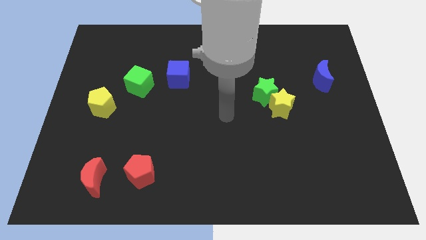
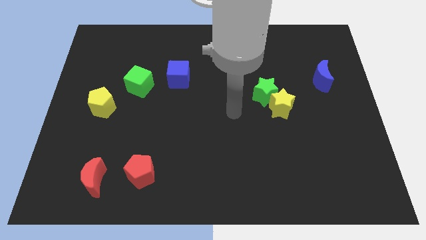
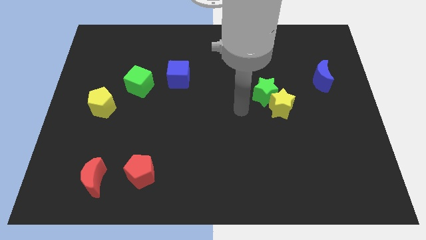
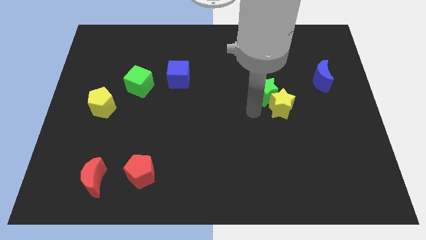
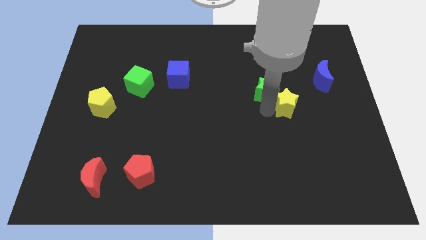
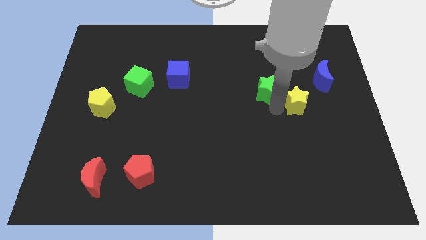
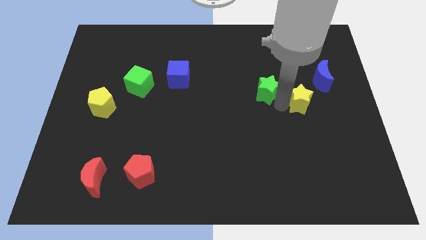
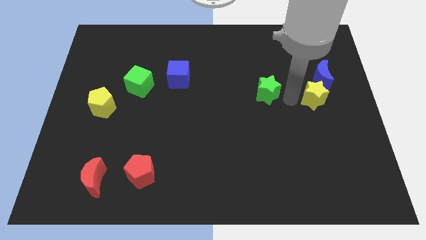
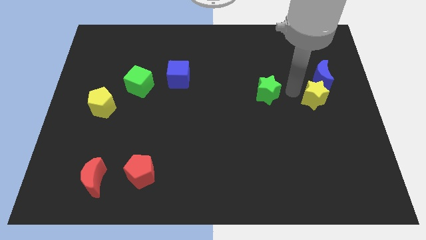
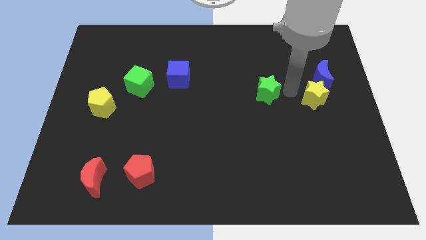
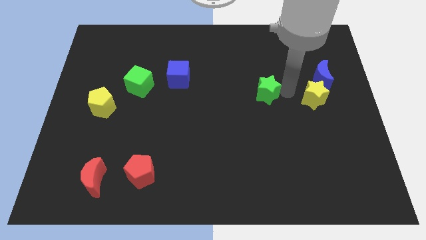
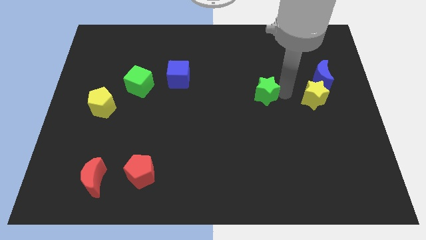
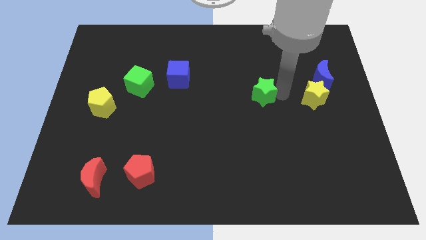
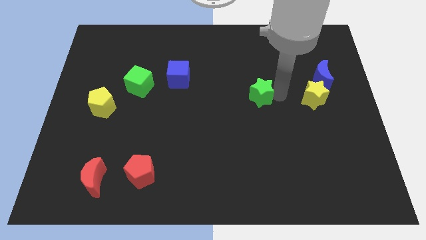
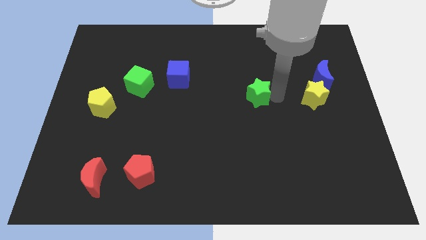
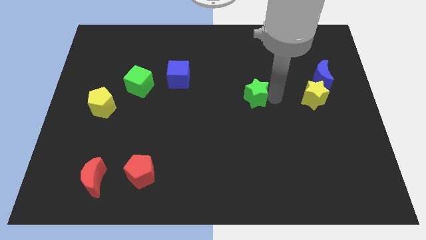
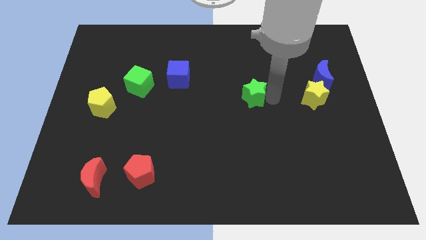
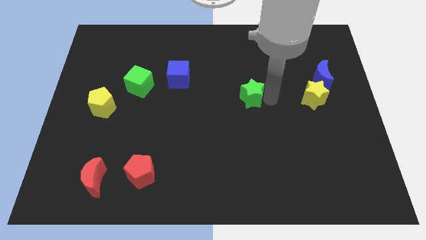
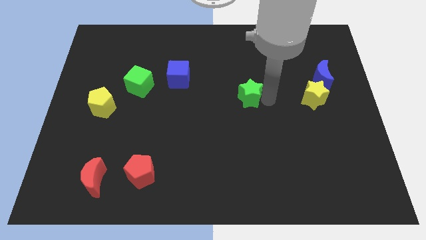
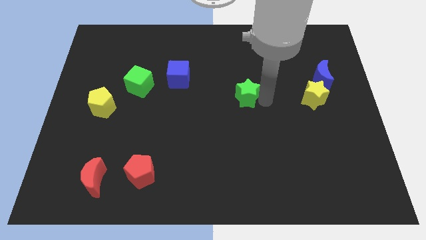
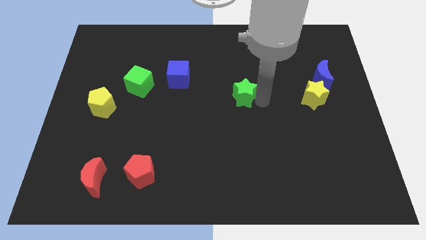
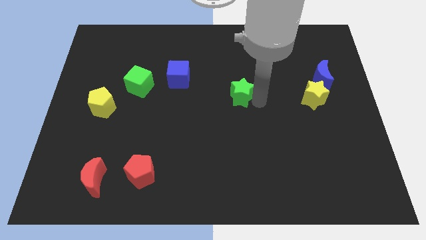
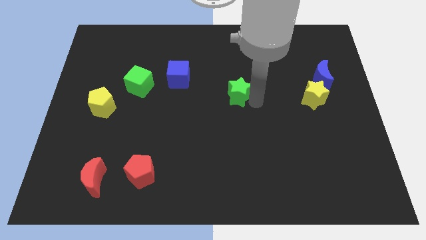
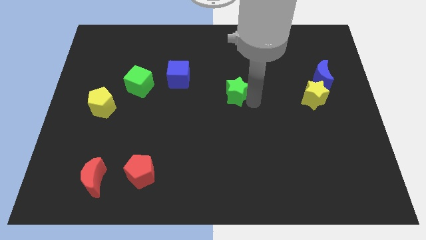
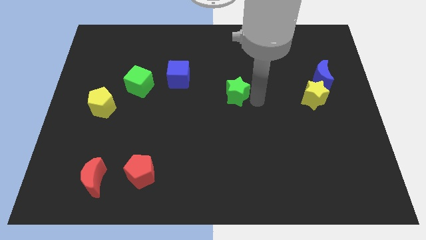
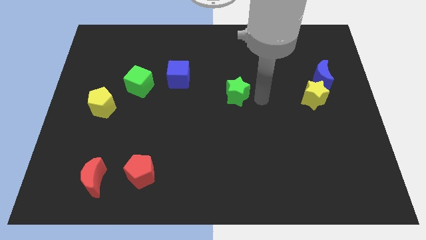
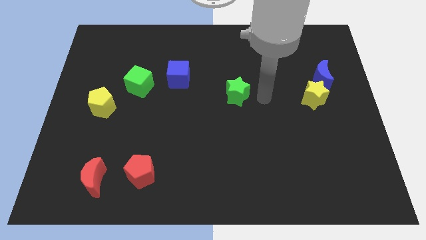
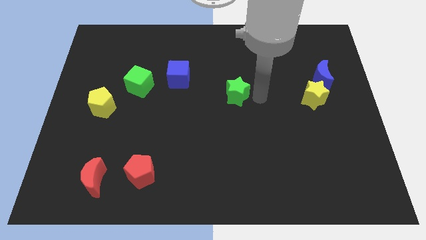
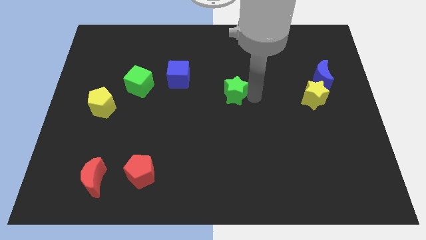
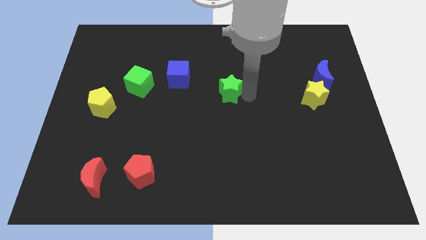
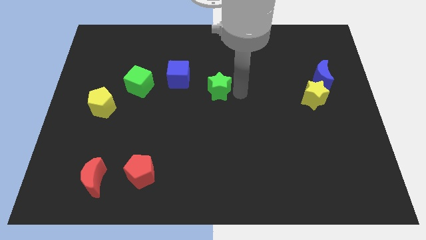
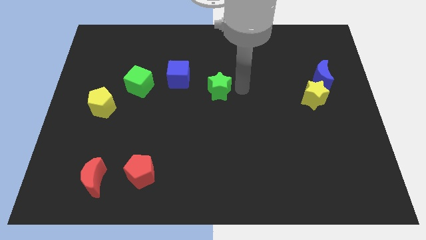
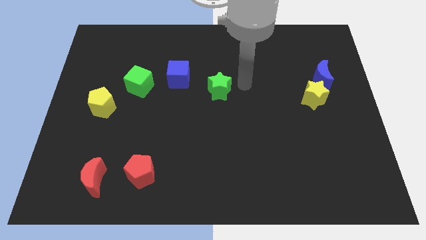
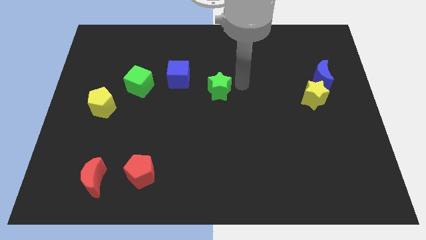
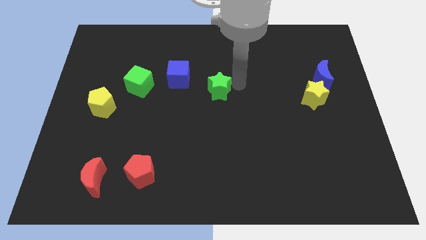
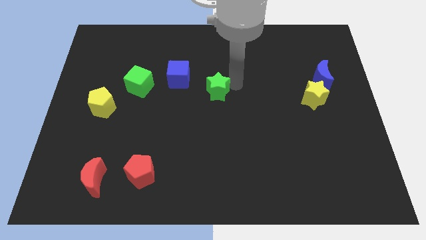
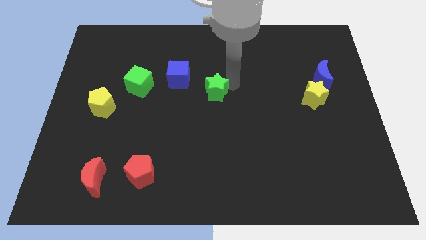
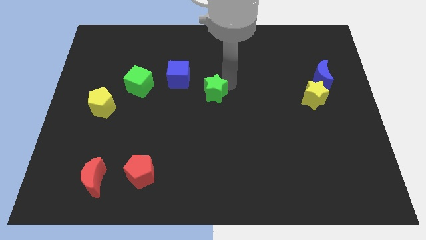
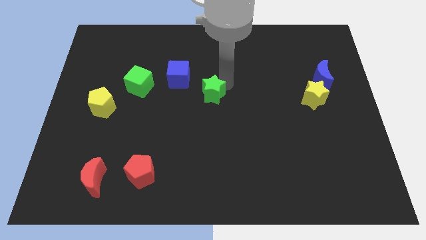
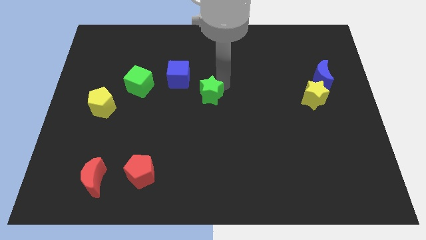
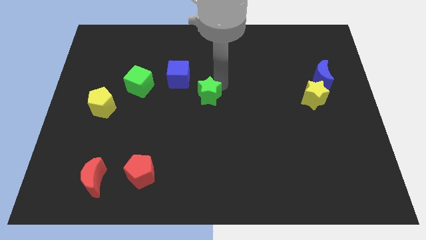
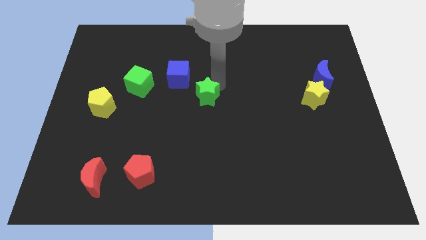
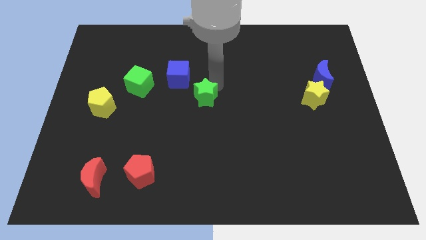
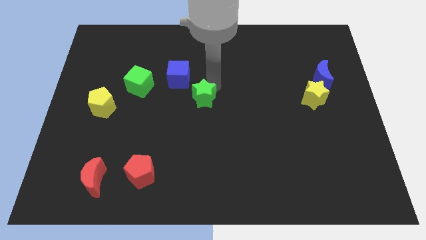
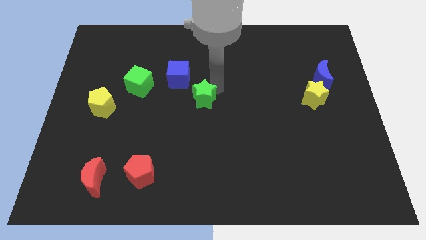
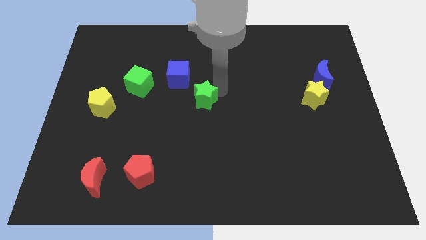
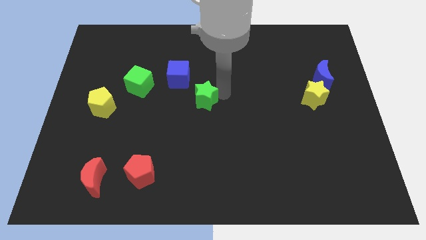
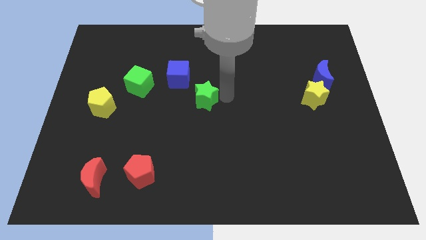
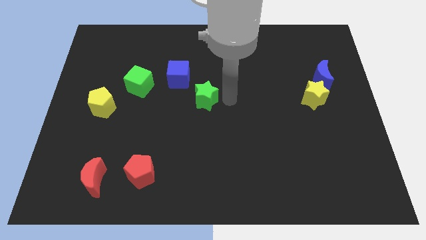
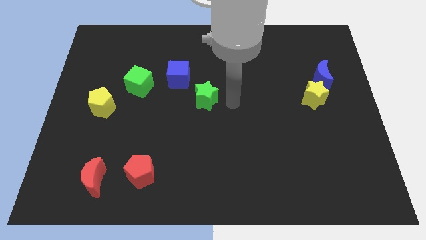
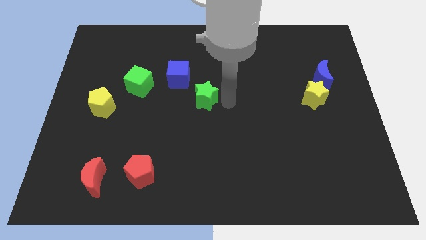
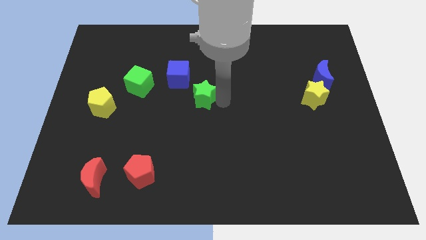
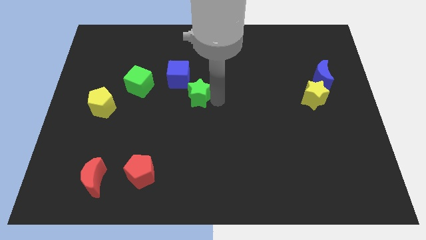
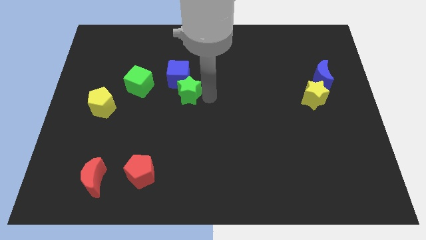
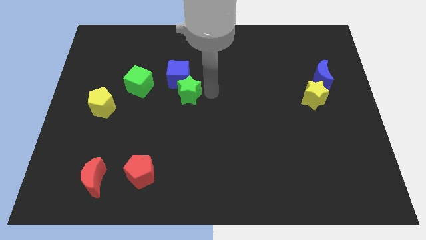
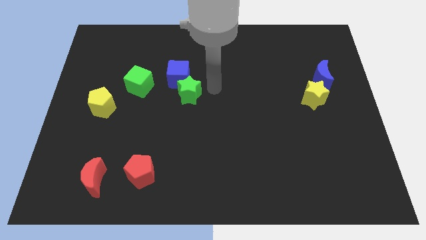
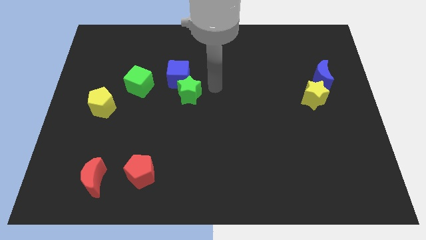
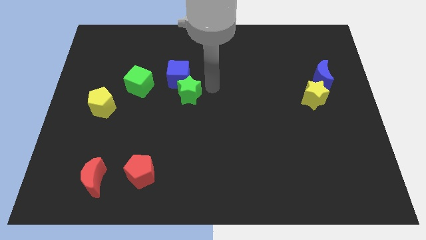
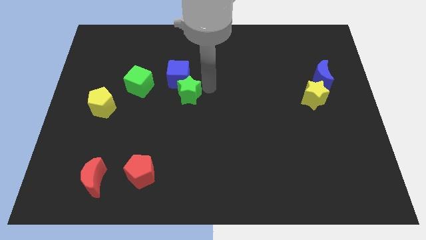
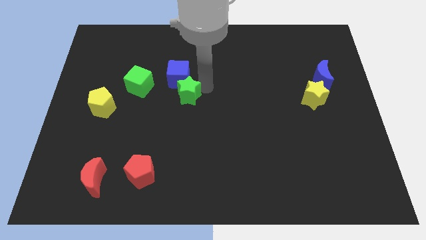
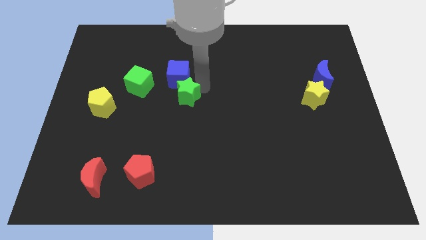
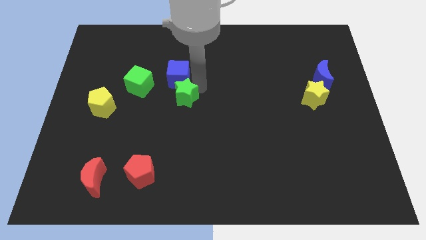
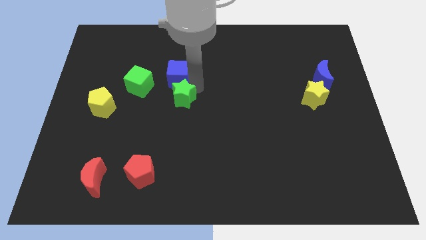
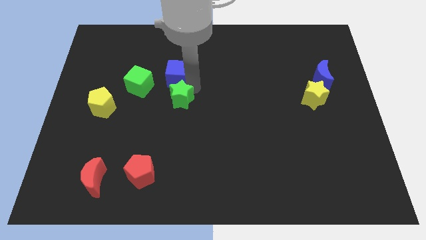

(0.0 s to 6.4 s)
put the green star to the bottom right of the green cube
